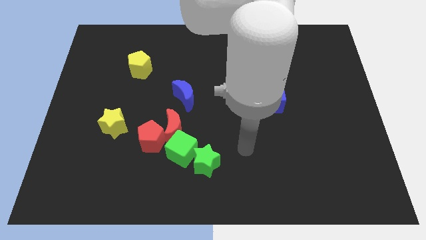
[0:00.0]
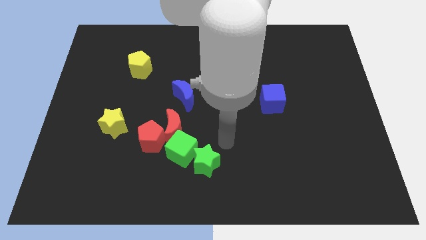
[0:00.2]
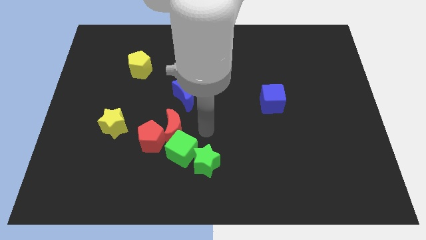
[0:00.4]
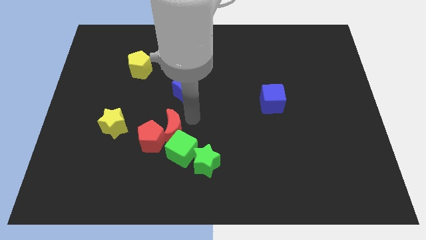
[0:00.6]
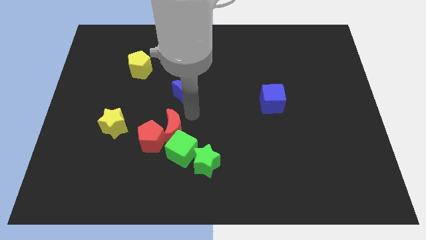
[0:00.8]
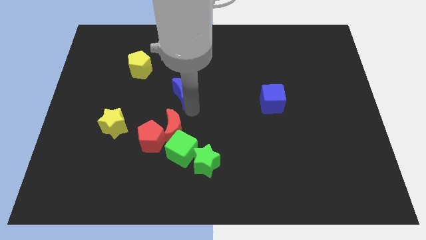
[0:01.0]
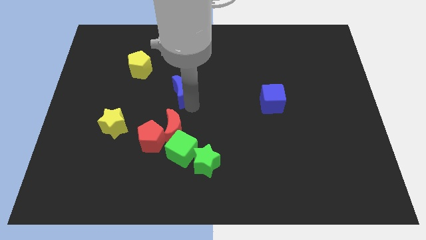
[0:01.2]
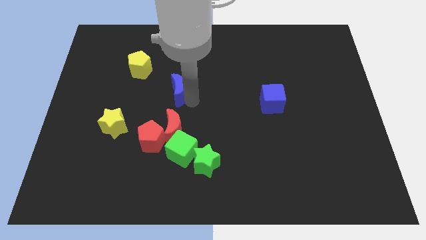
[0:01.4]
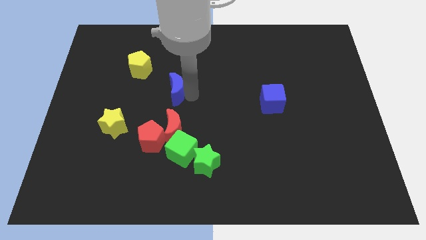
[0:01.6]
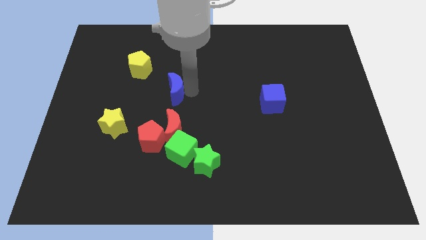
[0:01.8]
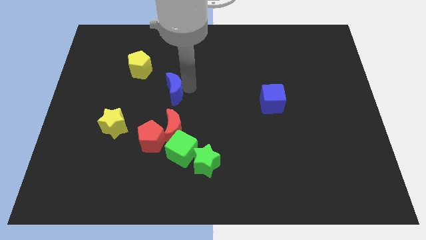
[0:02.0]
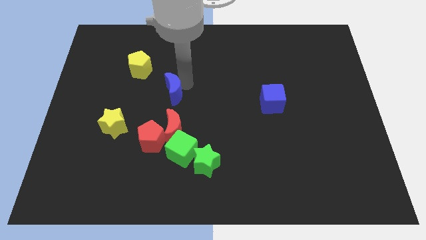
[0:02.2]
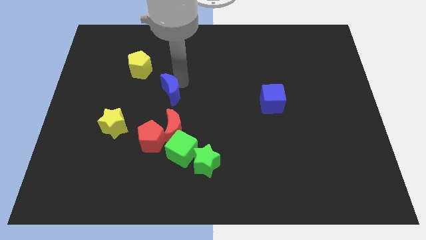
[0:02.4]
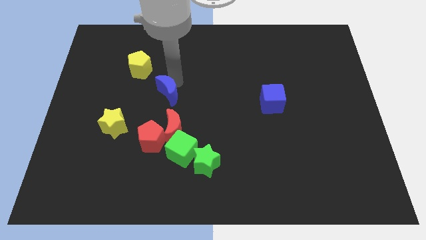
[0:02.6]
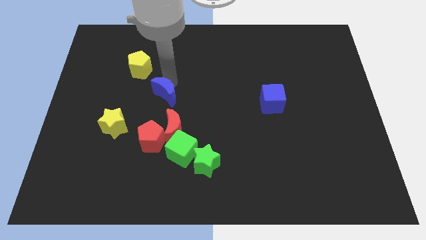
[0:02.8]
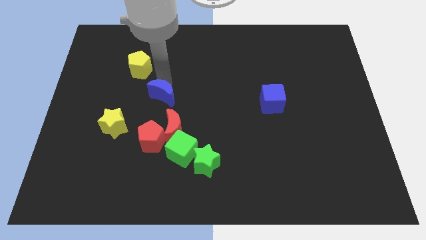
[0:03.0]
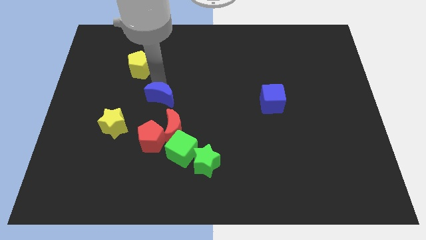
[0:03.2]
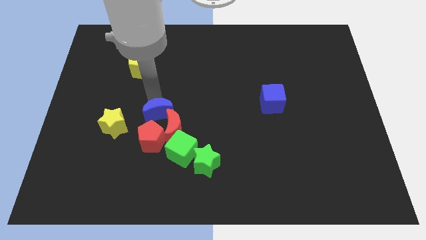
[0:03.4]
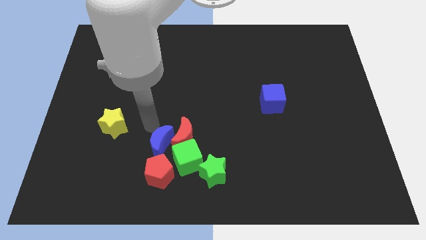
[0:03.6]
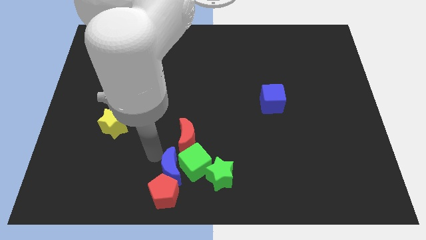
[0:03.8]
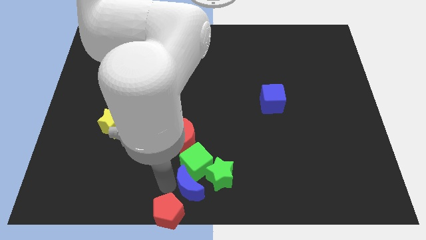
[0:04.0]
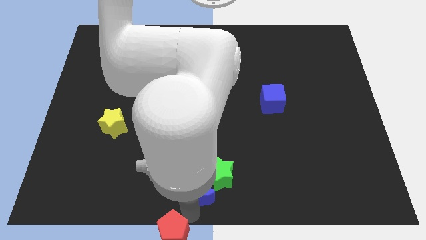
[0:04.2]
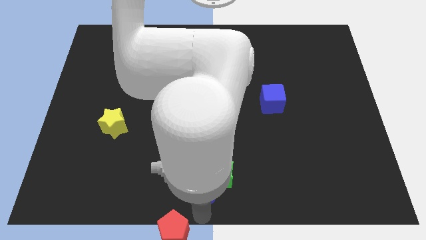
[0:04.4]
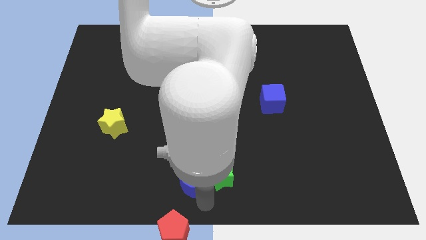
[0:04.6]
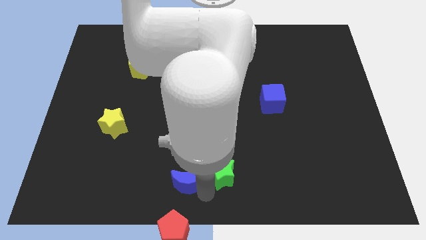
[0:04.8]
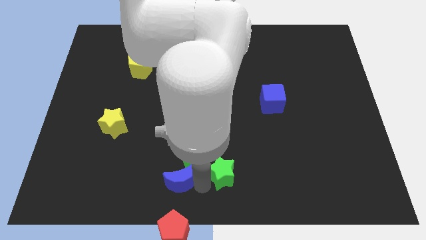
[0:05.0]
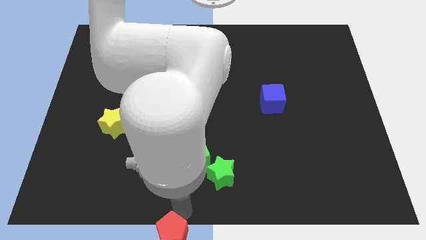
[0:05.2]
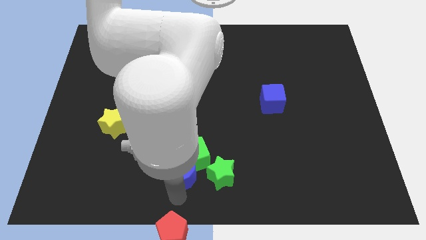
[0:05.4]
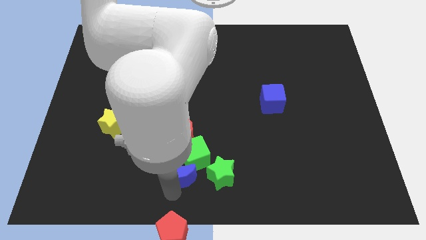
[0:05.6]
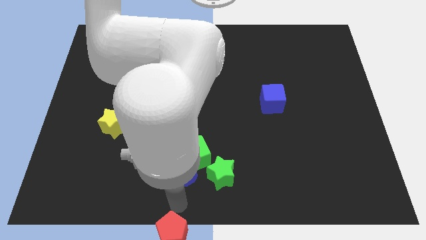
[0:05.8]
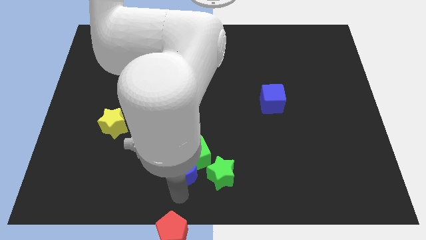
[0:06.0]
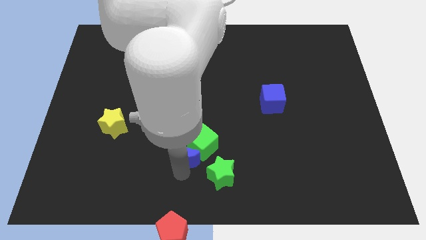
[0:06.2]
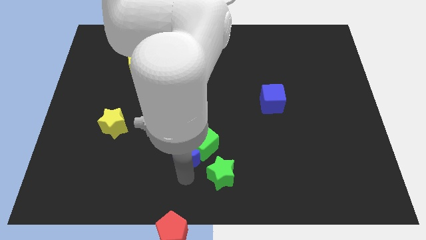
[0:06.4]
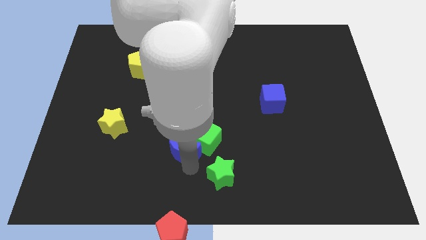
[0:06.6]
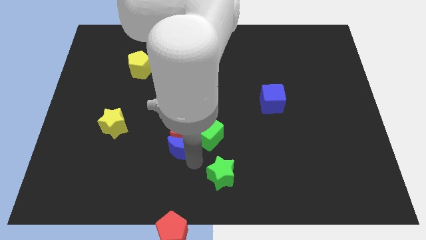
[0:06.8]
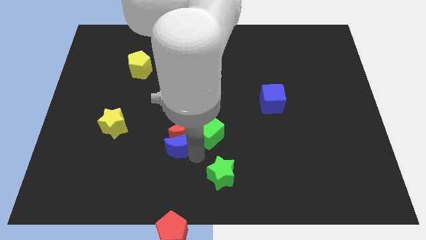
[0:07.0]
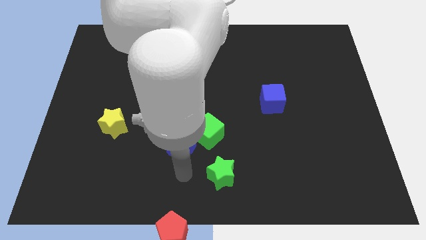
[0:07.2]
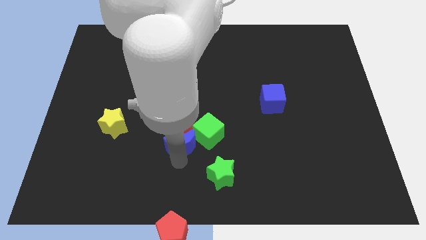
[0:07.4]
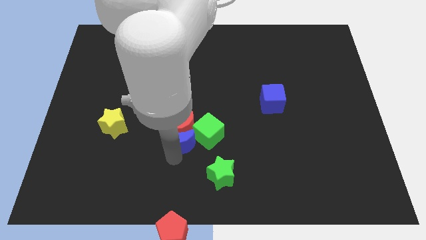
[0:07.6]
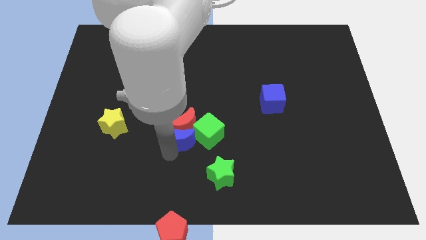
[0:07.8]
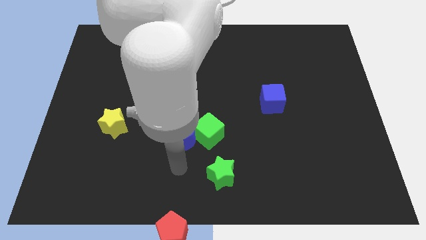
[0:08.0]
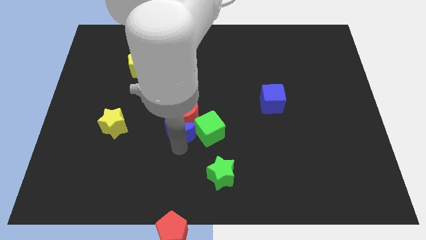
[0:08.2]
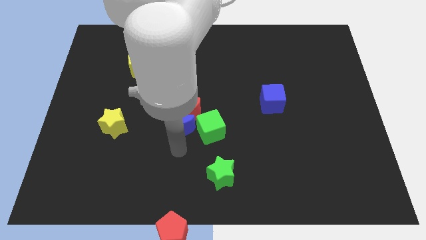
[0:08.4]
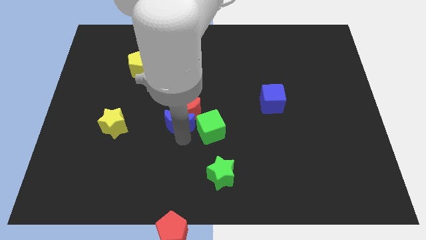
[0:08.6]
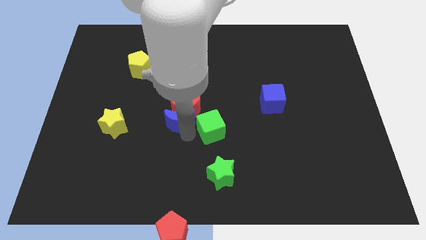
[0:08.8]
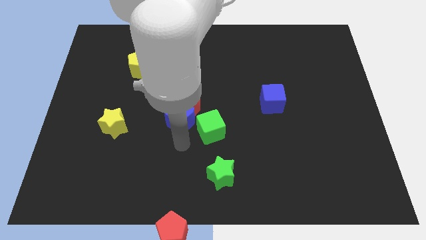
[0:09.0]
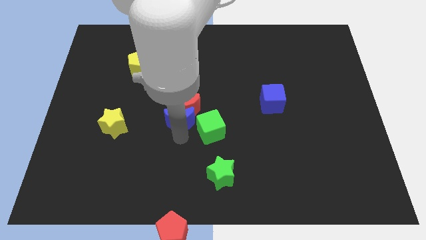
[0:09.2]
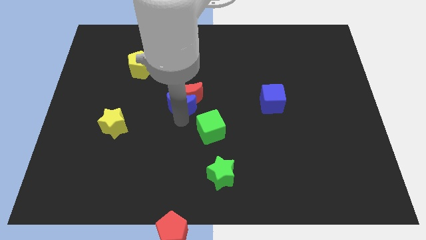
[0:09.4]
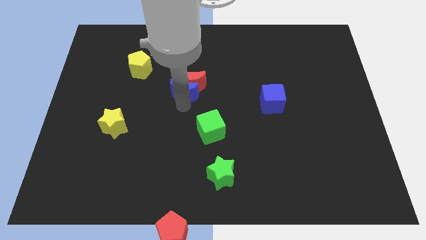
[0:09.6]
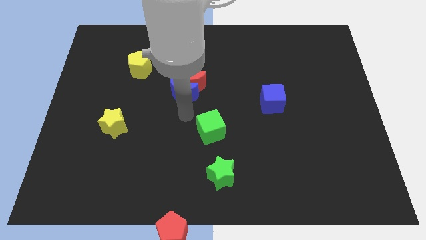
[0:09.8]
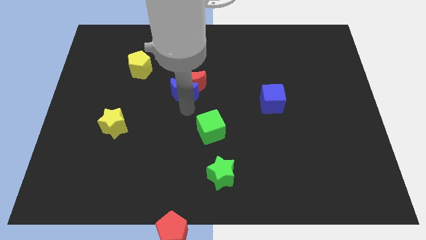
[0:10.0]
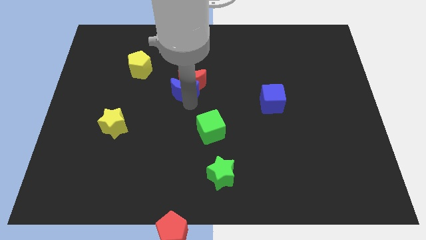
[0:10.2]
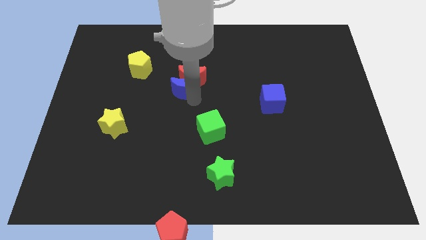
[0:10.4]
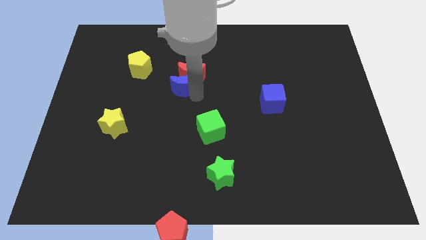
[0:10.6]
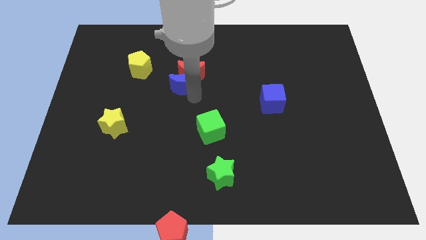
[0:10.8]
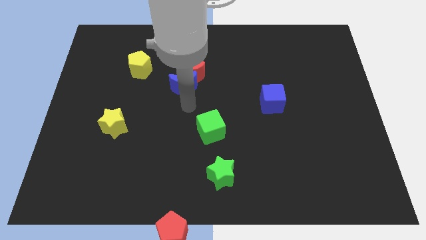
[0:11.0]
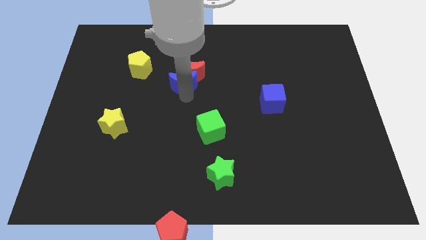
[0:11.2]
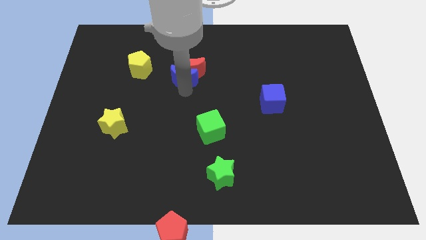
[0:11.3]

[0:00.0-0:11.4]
move the blue moon to the right of the yellow pentagon

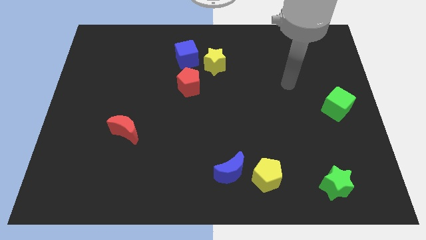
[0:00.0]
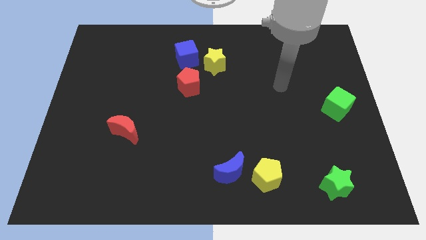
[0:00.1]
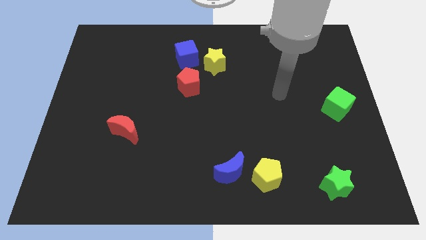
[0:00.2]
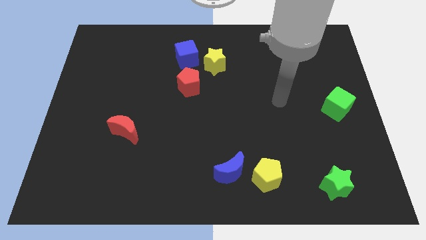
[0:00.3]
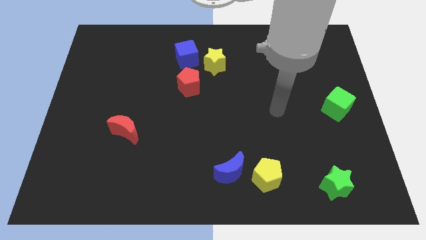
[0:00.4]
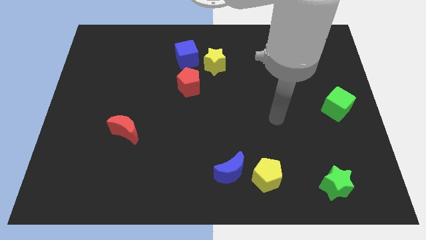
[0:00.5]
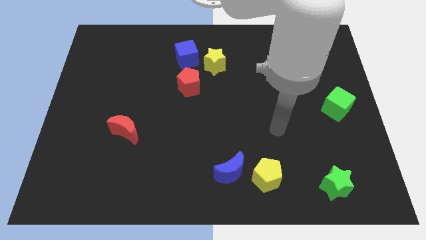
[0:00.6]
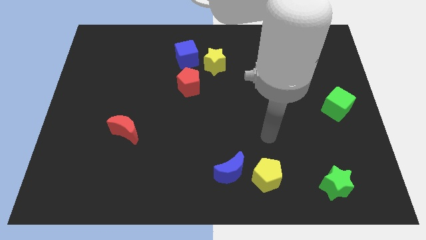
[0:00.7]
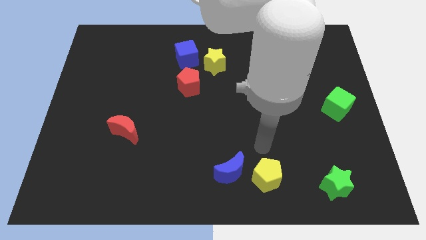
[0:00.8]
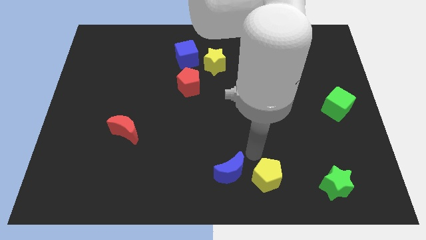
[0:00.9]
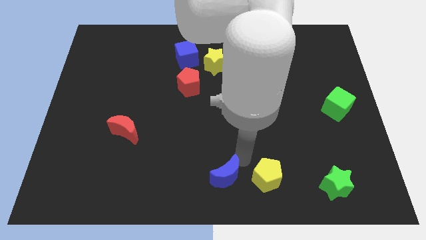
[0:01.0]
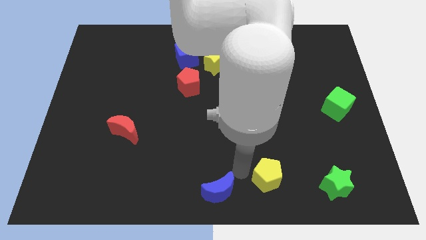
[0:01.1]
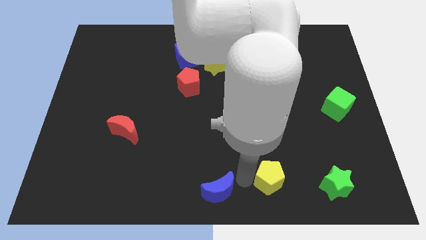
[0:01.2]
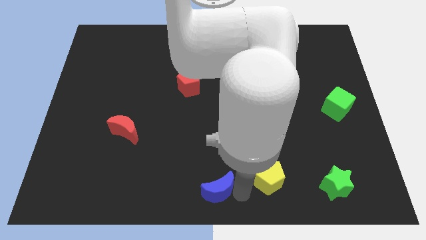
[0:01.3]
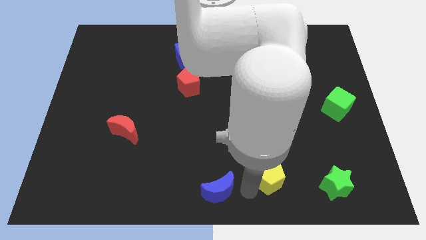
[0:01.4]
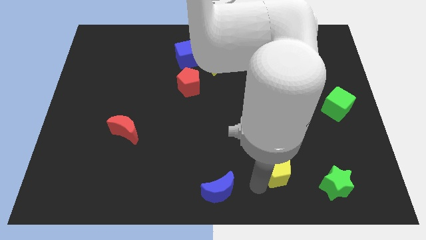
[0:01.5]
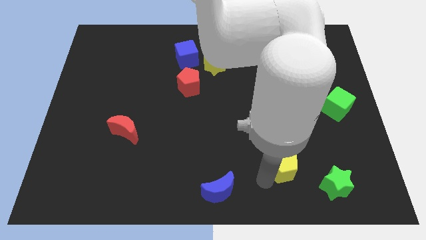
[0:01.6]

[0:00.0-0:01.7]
move the yellow pentagon to the top left side of the green star

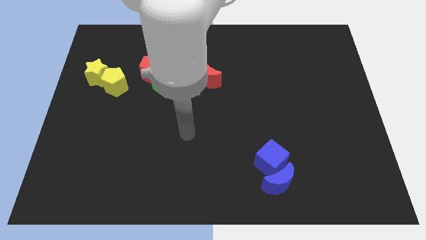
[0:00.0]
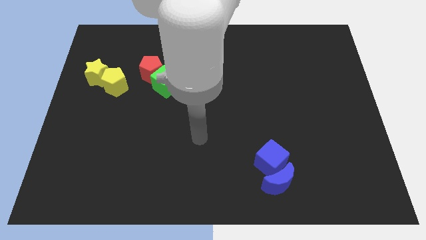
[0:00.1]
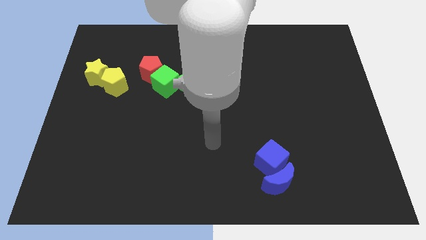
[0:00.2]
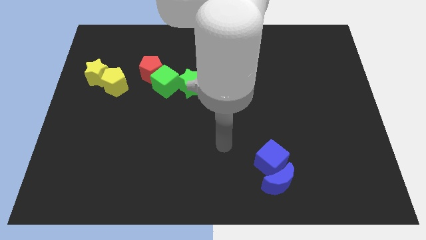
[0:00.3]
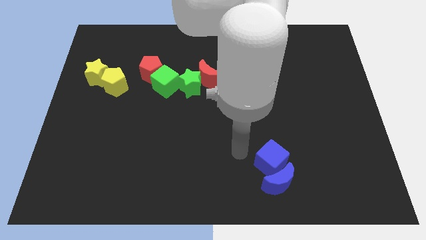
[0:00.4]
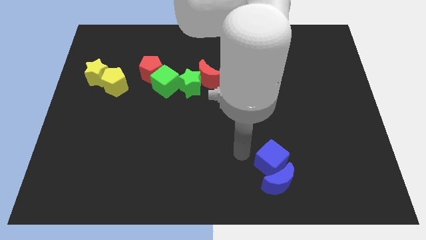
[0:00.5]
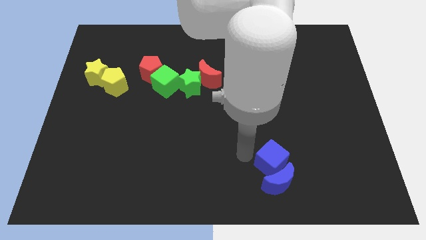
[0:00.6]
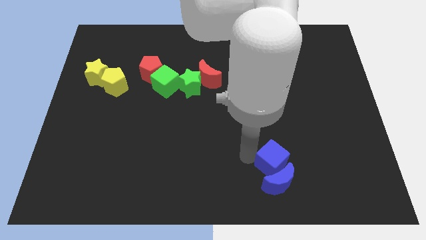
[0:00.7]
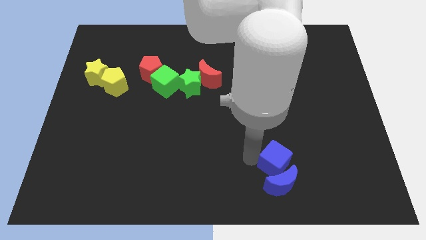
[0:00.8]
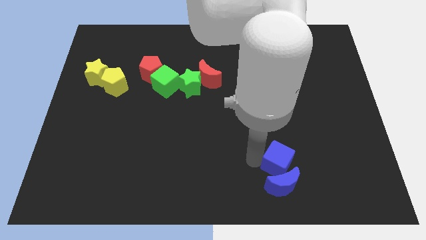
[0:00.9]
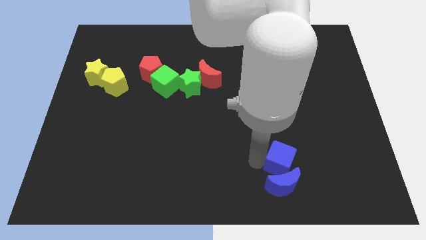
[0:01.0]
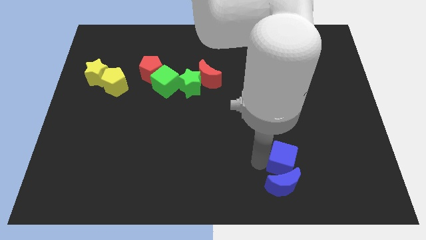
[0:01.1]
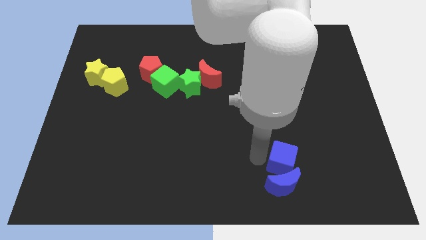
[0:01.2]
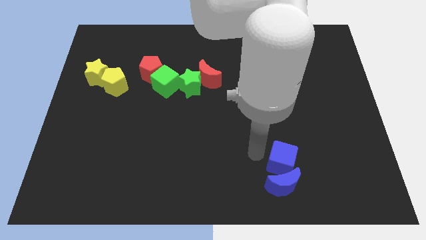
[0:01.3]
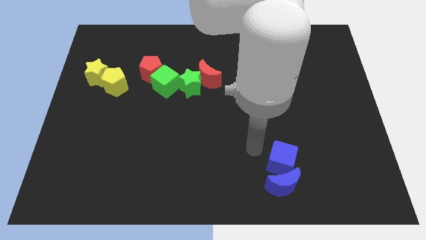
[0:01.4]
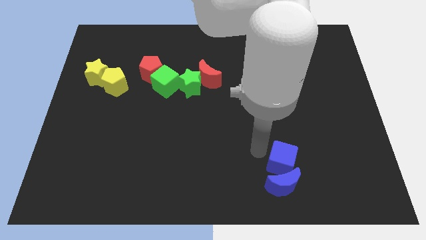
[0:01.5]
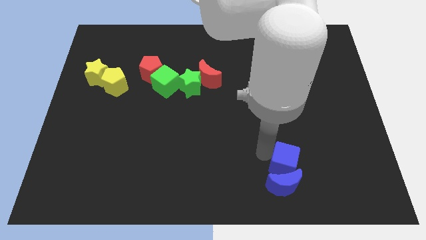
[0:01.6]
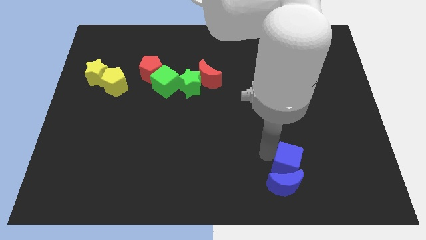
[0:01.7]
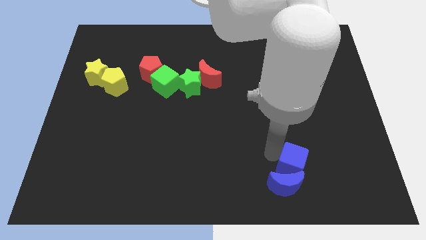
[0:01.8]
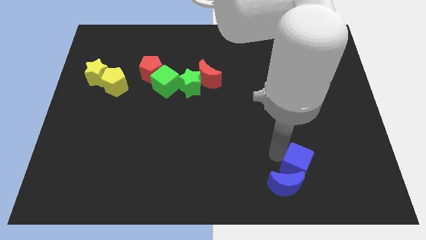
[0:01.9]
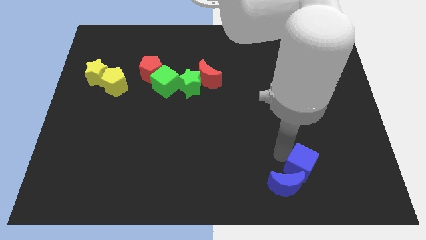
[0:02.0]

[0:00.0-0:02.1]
push the blue cube right of the blue moon
